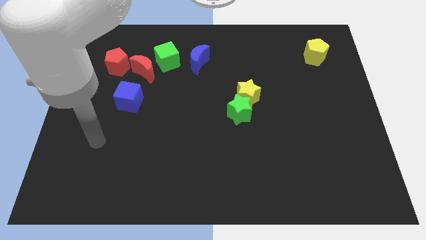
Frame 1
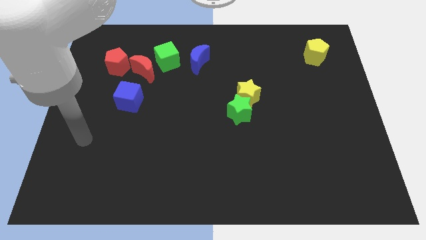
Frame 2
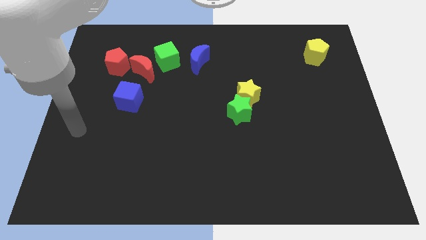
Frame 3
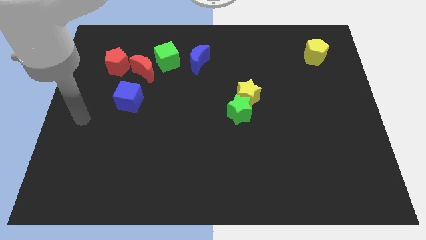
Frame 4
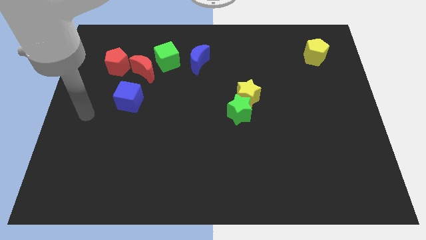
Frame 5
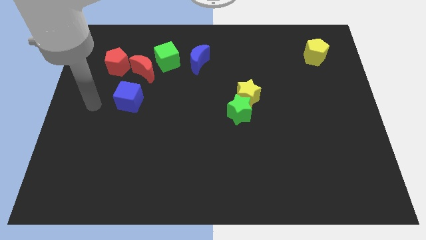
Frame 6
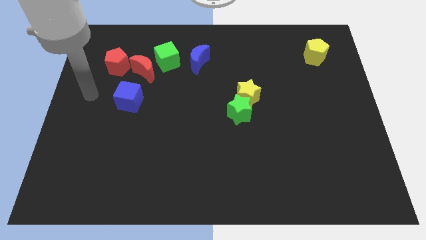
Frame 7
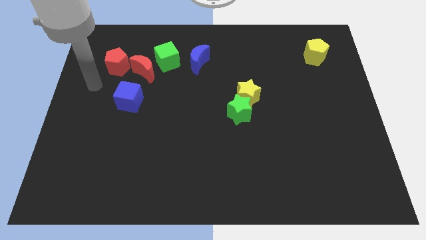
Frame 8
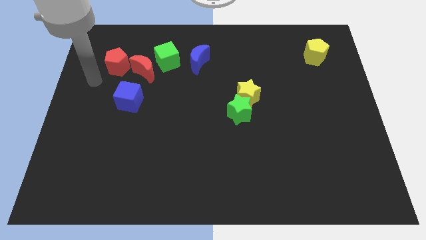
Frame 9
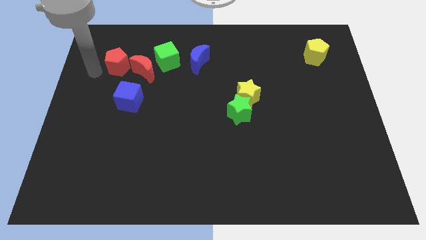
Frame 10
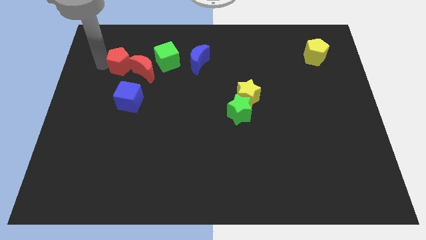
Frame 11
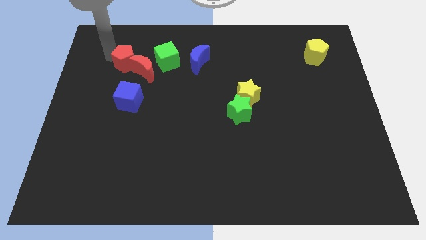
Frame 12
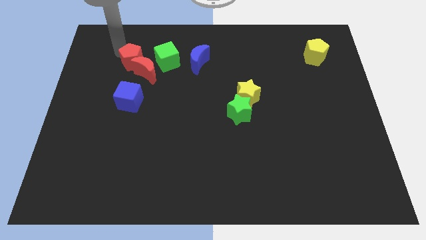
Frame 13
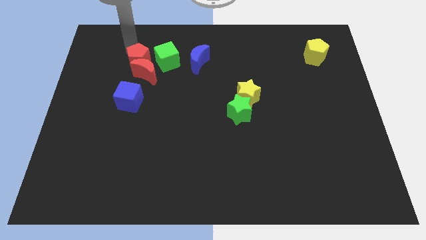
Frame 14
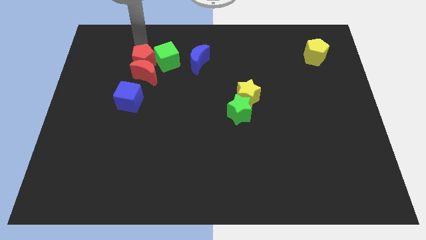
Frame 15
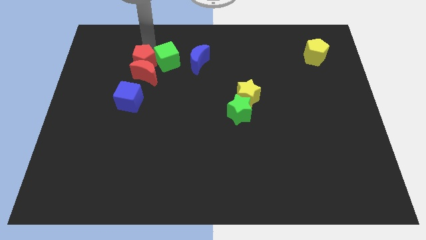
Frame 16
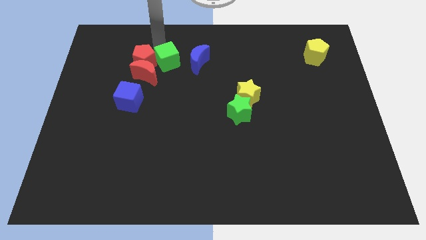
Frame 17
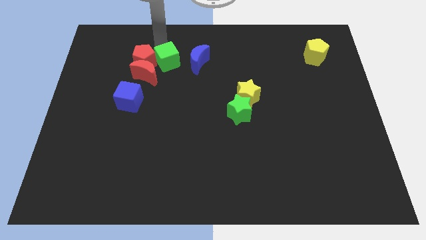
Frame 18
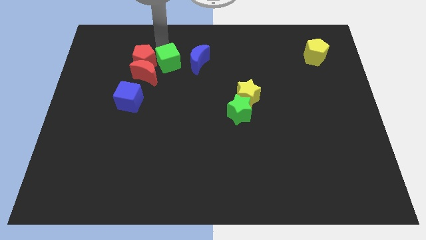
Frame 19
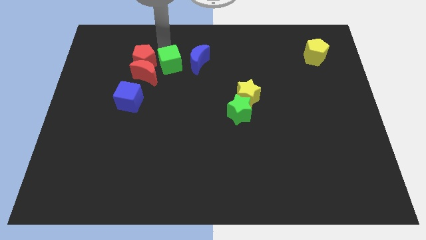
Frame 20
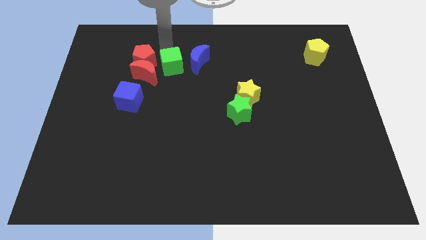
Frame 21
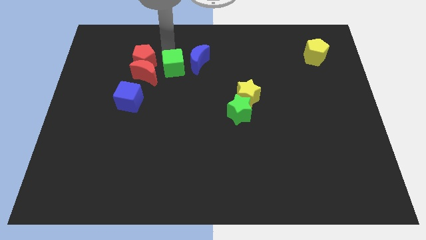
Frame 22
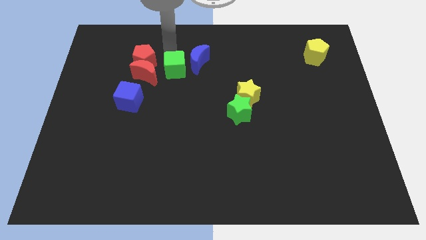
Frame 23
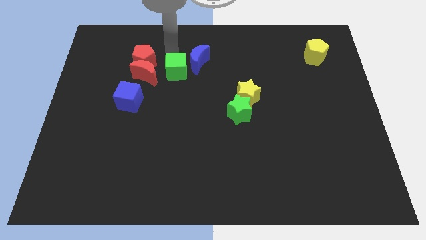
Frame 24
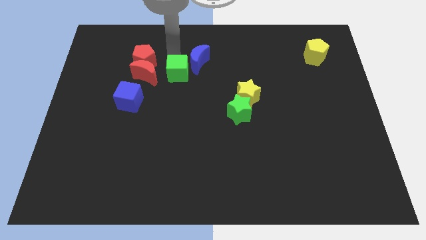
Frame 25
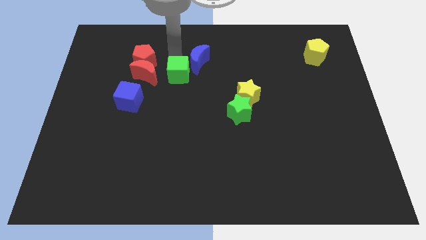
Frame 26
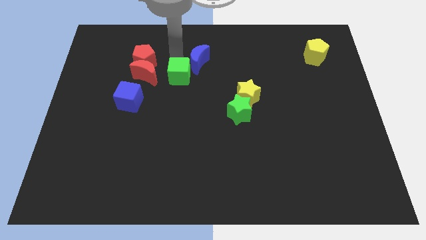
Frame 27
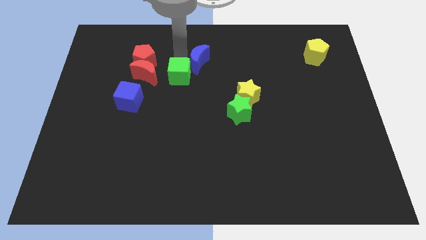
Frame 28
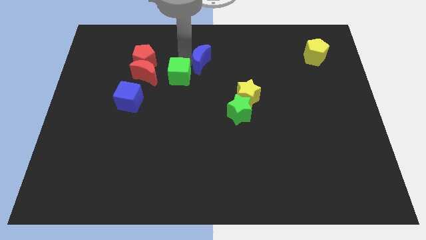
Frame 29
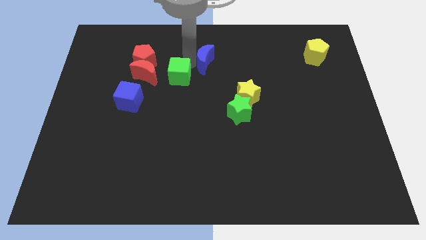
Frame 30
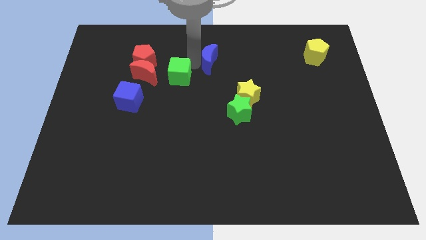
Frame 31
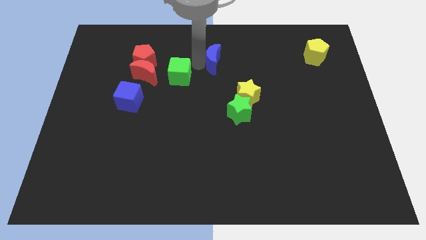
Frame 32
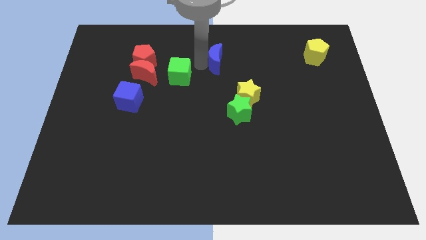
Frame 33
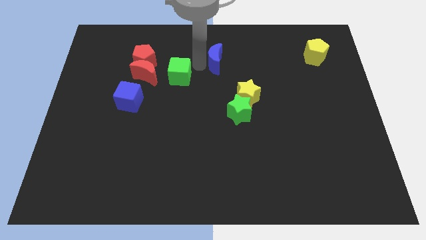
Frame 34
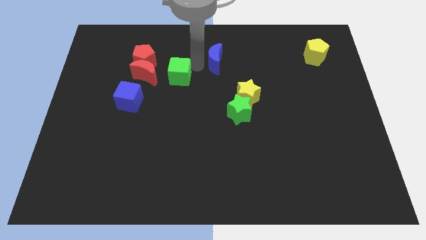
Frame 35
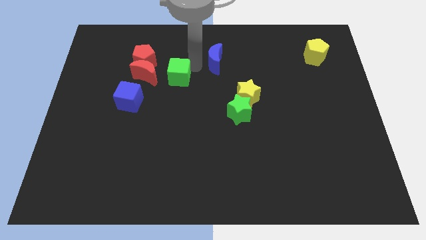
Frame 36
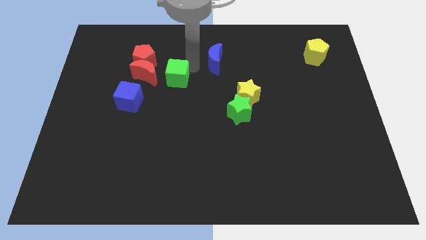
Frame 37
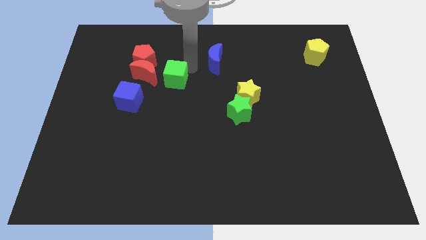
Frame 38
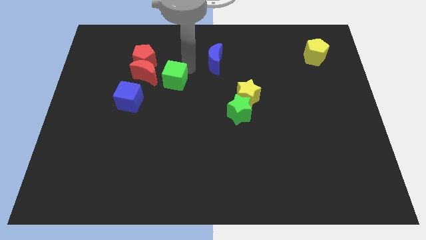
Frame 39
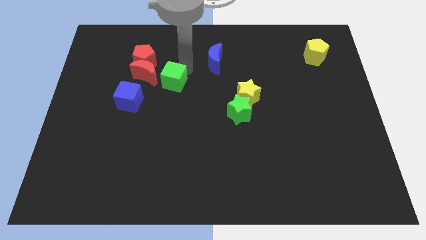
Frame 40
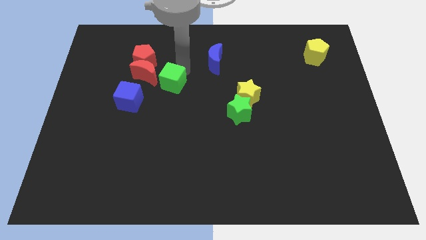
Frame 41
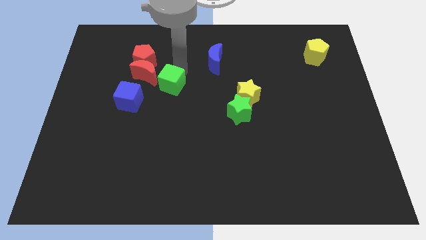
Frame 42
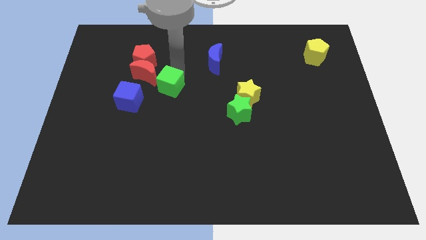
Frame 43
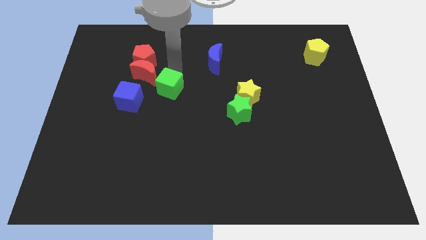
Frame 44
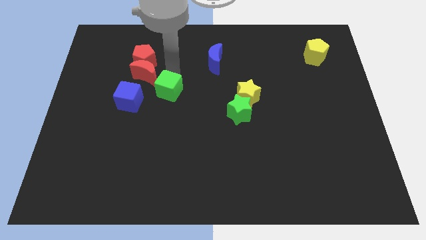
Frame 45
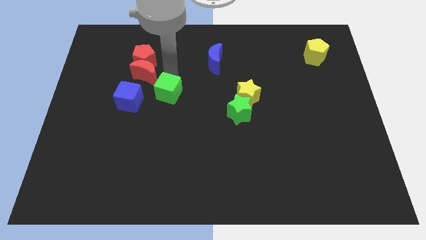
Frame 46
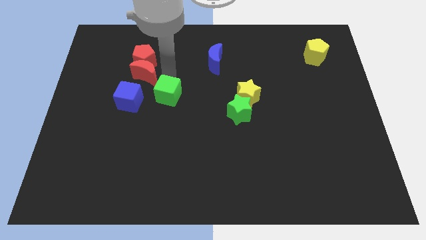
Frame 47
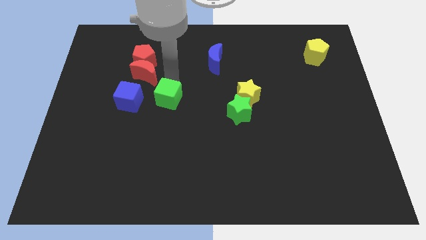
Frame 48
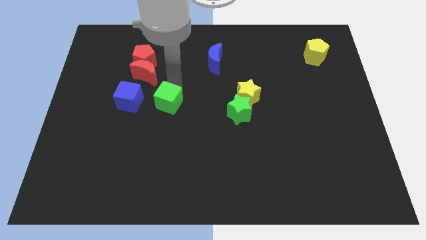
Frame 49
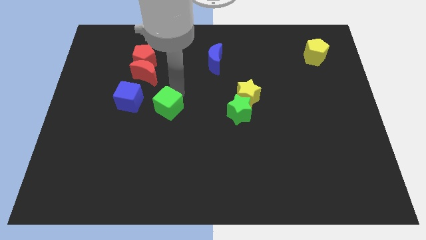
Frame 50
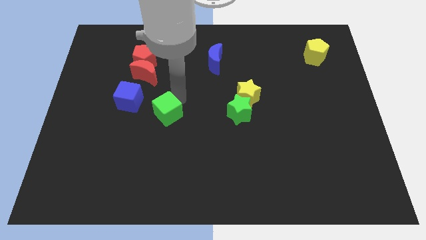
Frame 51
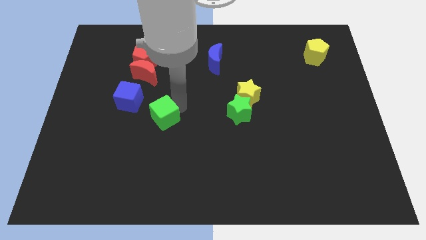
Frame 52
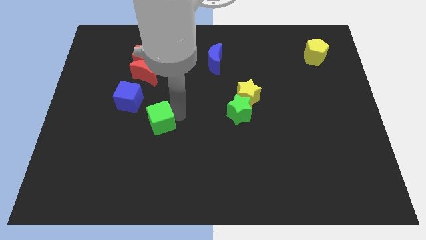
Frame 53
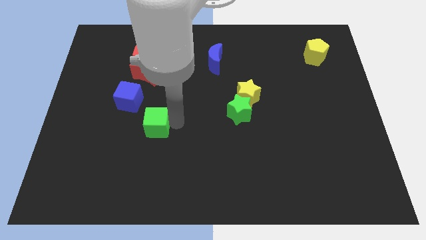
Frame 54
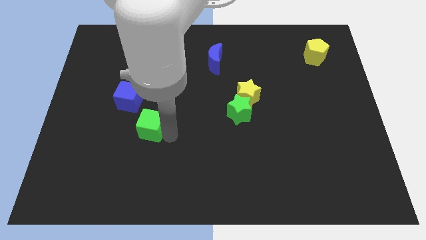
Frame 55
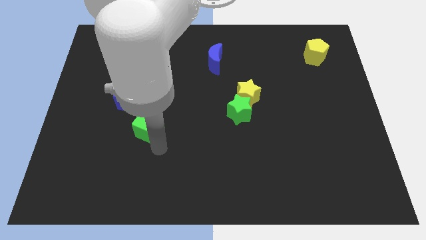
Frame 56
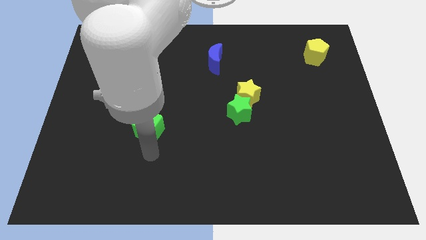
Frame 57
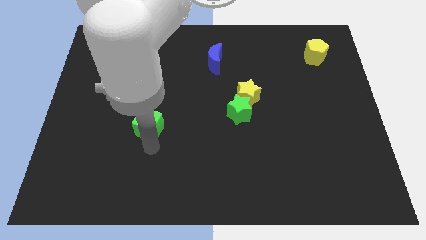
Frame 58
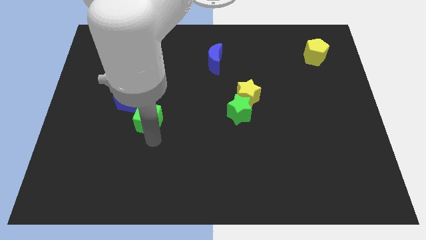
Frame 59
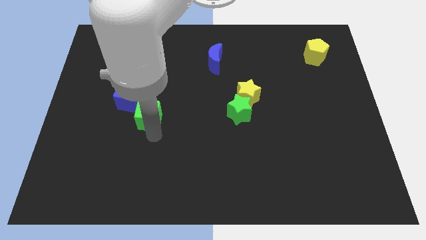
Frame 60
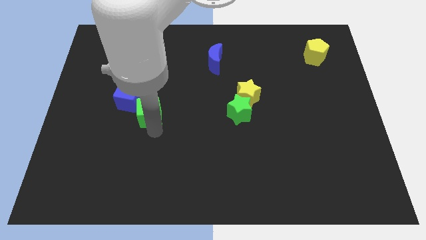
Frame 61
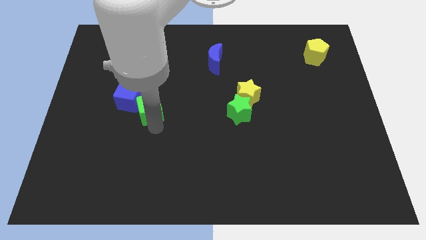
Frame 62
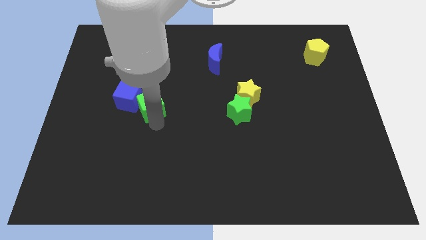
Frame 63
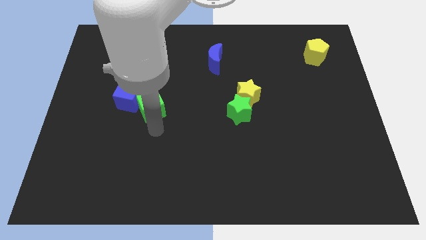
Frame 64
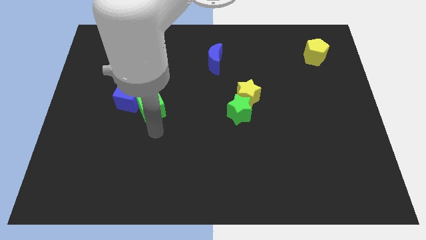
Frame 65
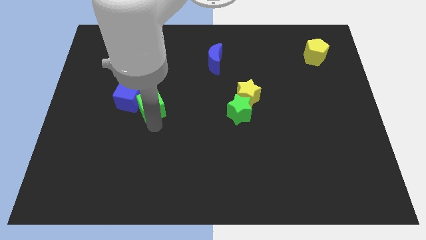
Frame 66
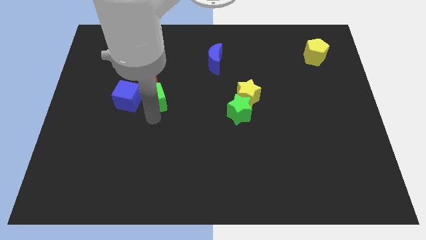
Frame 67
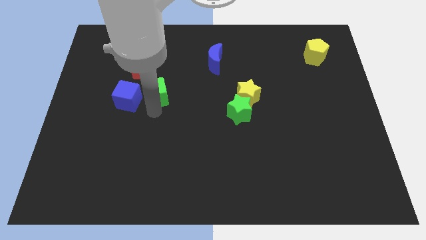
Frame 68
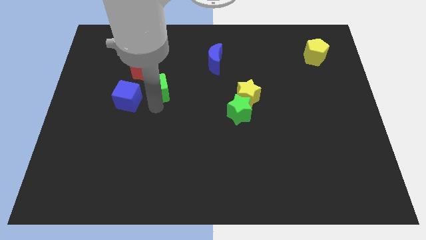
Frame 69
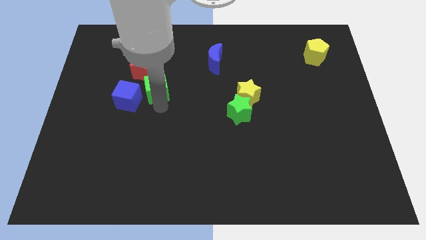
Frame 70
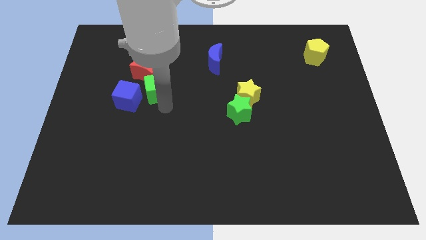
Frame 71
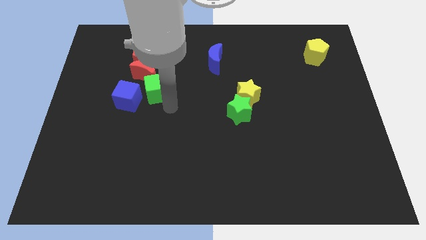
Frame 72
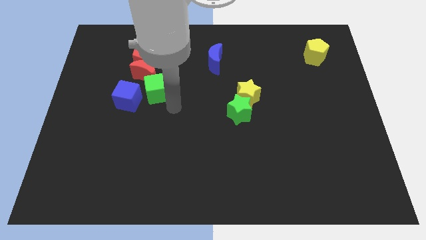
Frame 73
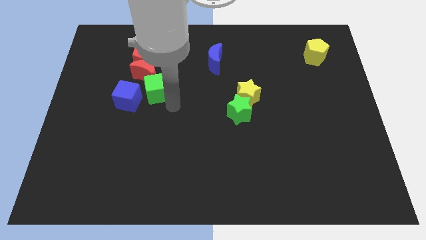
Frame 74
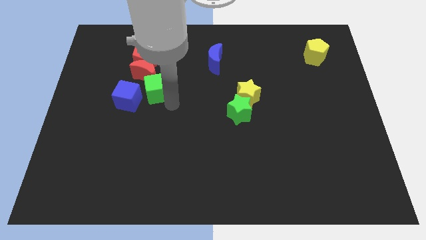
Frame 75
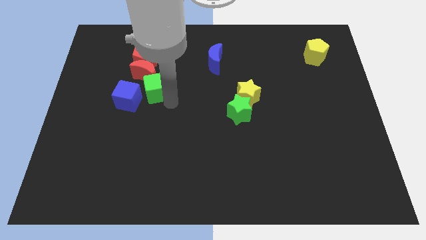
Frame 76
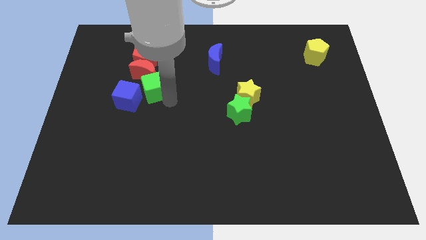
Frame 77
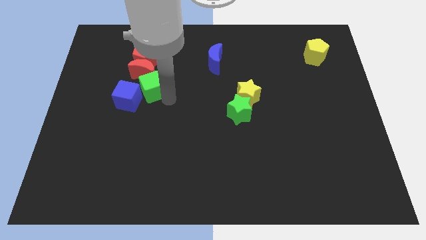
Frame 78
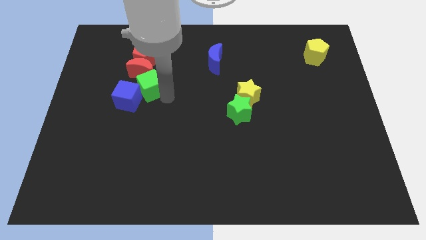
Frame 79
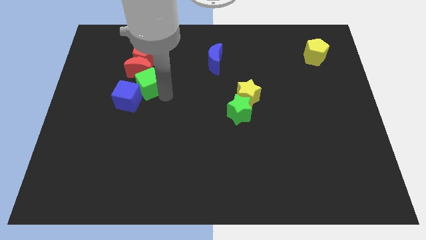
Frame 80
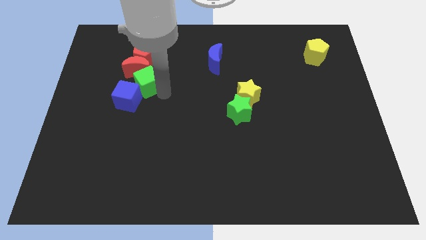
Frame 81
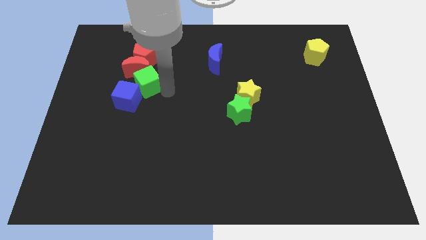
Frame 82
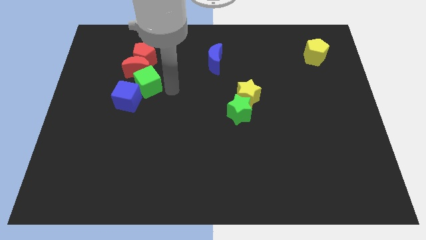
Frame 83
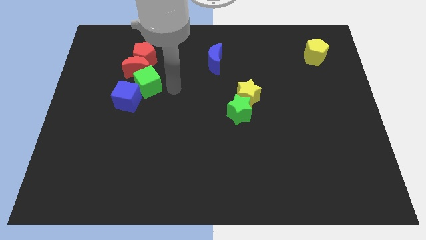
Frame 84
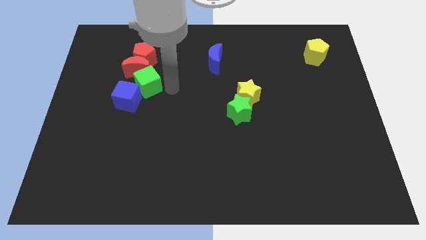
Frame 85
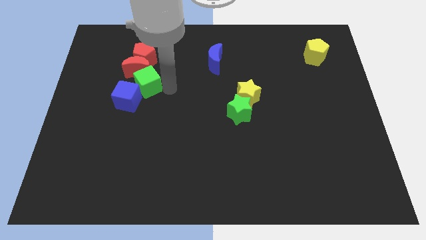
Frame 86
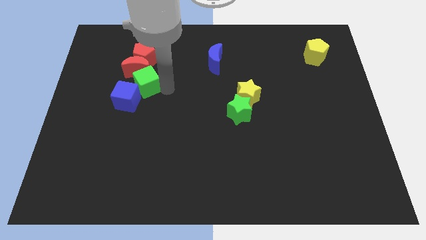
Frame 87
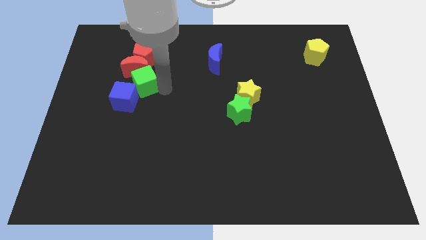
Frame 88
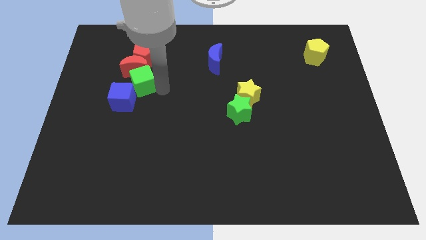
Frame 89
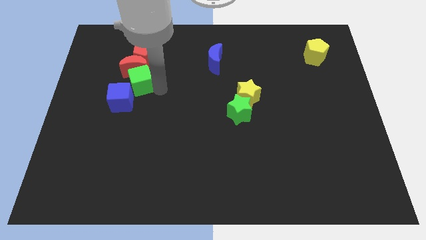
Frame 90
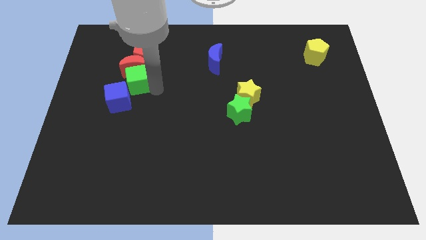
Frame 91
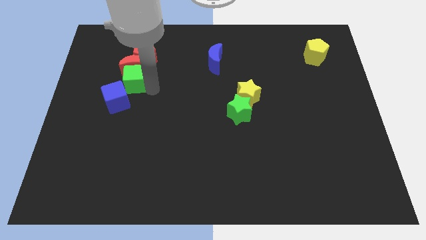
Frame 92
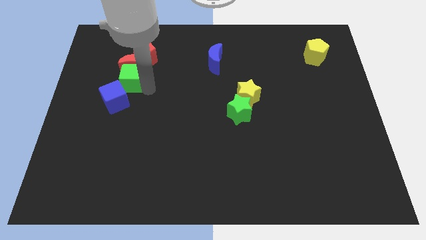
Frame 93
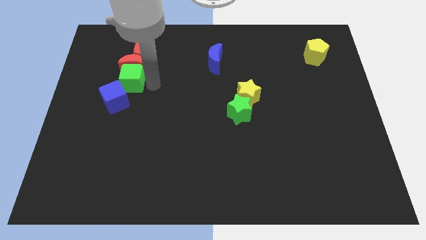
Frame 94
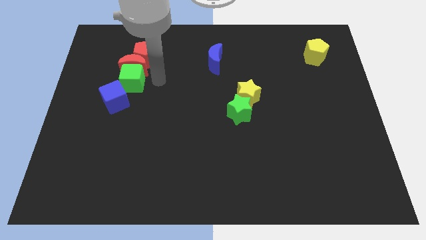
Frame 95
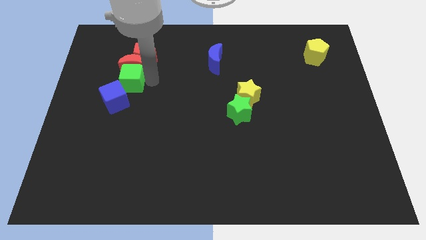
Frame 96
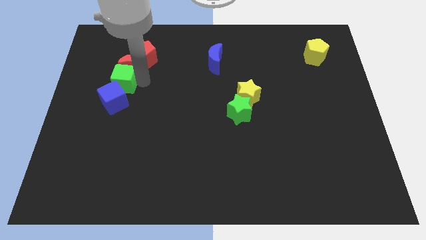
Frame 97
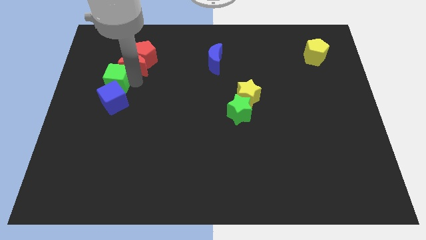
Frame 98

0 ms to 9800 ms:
slide the green cube diagonally up and to the left of the blue cube
